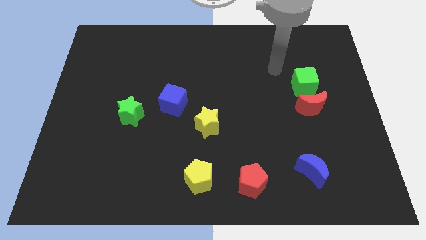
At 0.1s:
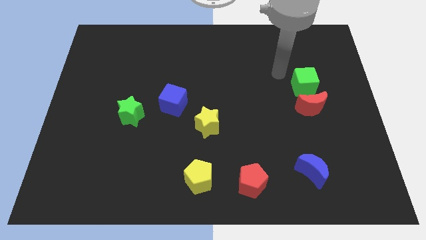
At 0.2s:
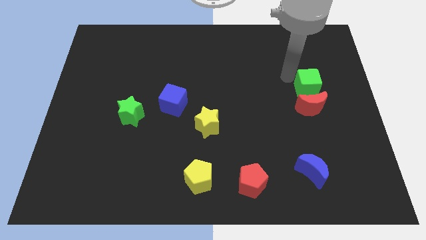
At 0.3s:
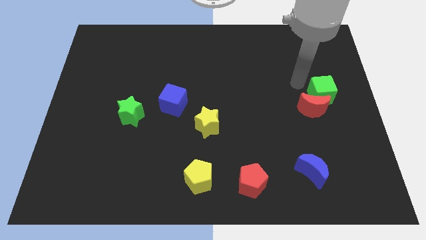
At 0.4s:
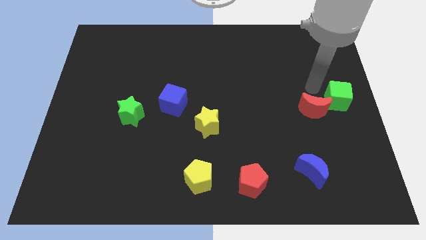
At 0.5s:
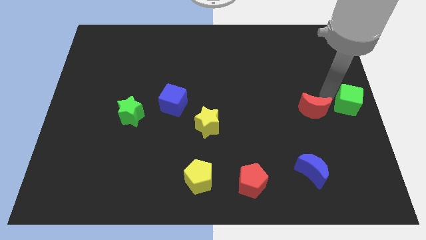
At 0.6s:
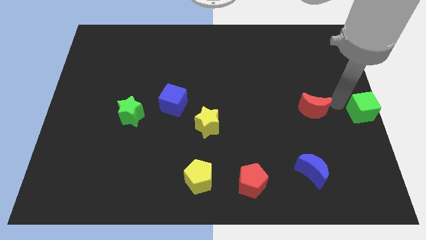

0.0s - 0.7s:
separate the red moon from the green cube

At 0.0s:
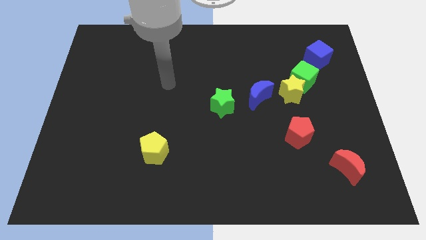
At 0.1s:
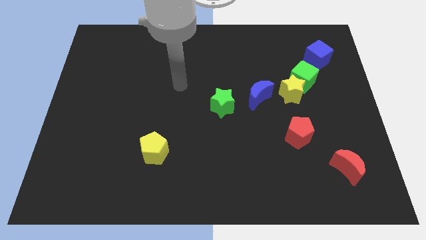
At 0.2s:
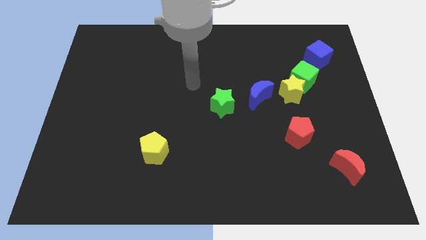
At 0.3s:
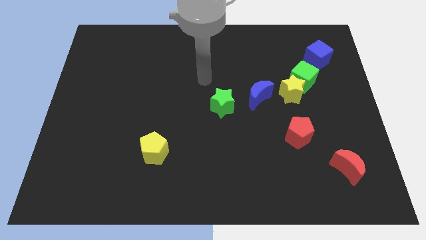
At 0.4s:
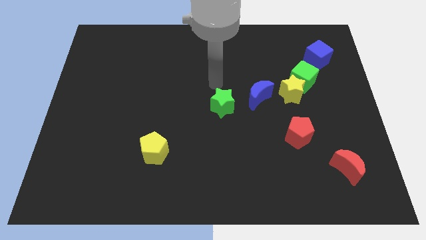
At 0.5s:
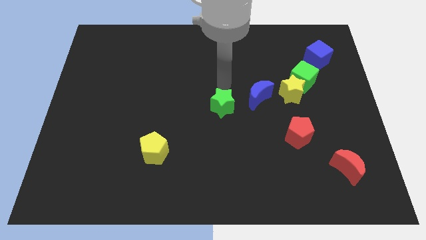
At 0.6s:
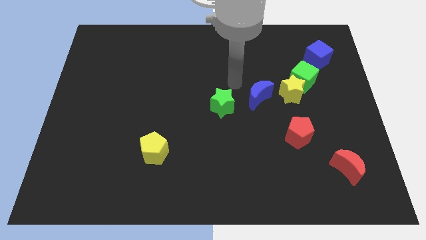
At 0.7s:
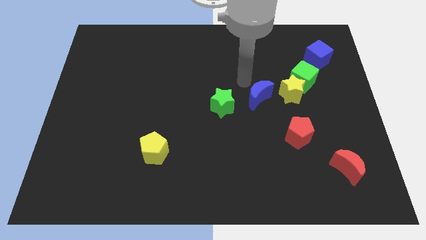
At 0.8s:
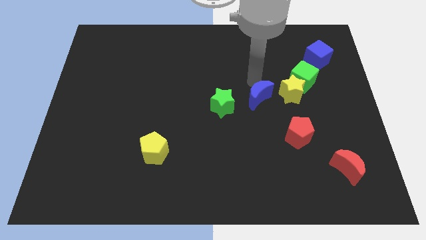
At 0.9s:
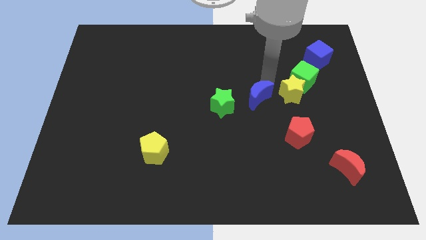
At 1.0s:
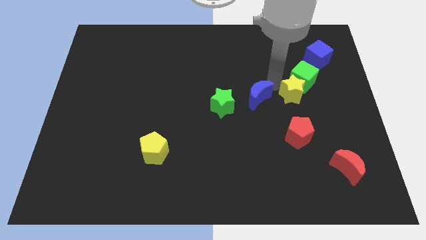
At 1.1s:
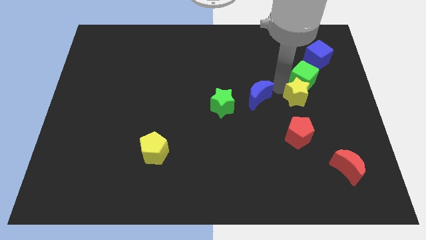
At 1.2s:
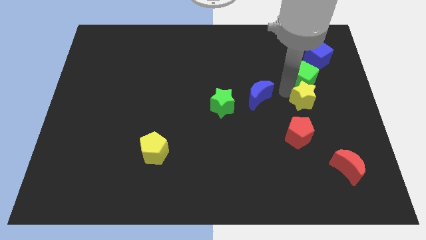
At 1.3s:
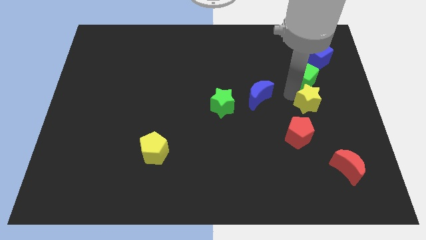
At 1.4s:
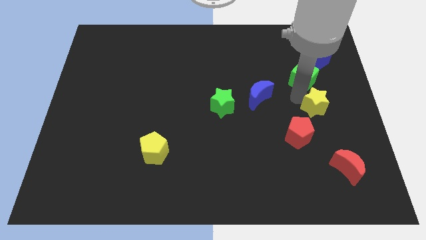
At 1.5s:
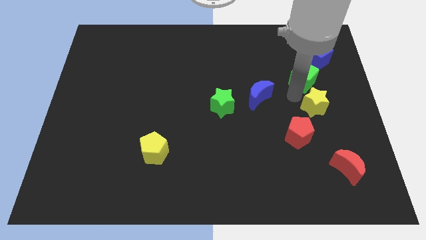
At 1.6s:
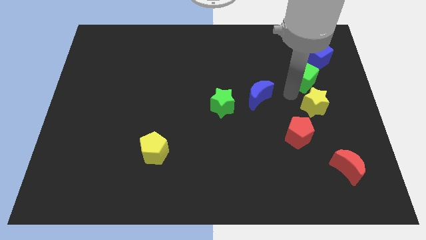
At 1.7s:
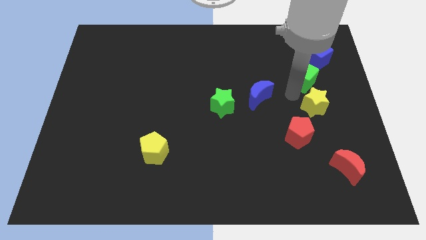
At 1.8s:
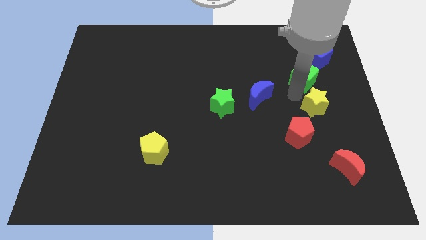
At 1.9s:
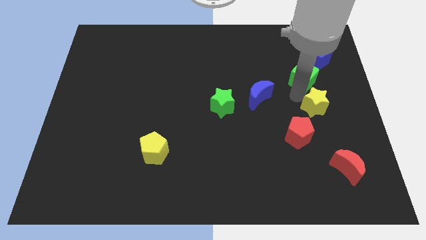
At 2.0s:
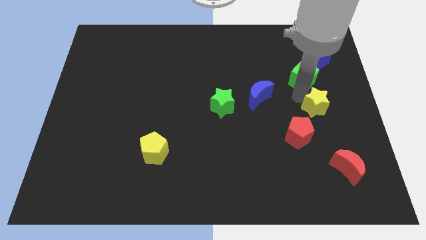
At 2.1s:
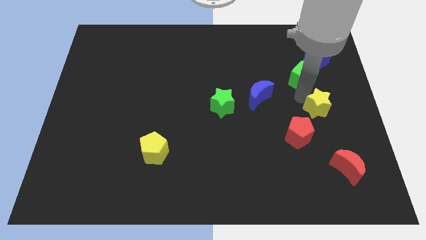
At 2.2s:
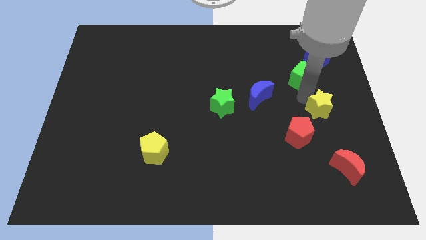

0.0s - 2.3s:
move the yellow star away from the green cube and blue moon

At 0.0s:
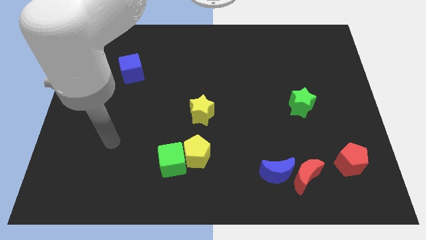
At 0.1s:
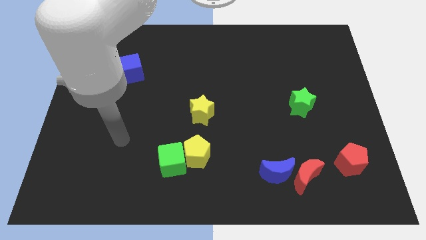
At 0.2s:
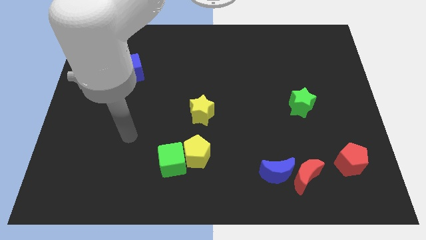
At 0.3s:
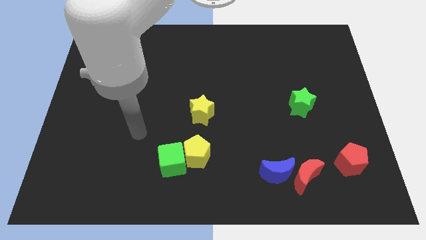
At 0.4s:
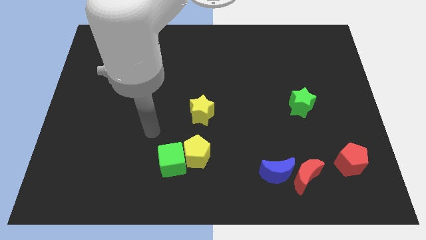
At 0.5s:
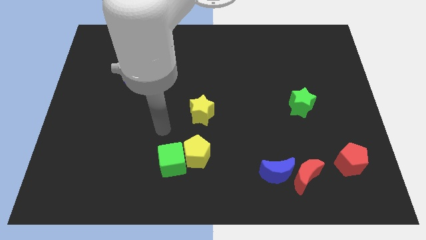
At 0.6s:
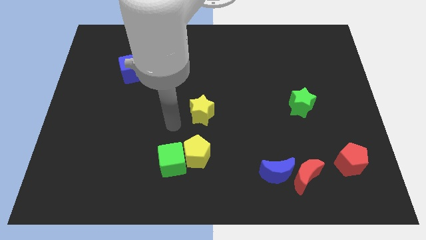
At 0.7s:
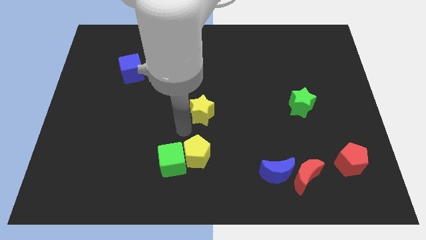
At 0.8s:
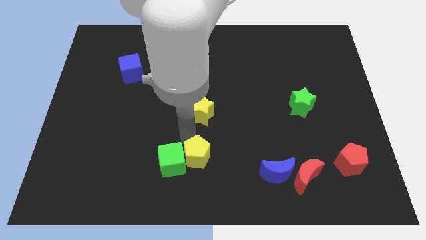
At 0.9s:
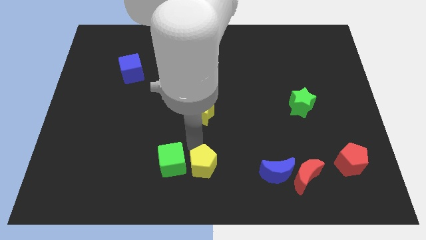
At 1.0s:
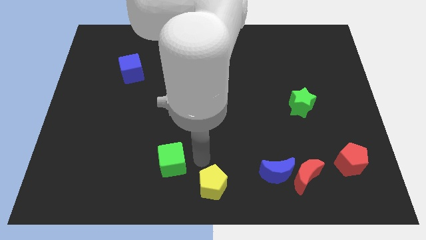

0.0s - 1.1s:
pull the green cube apart from the yellow pentagon

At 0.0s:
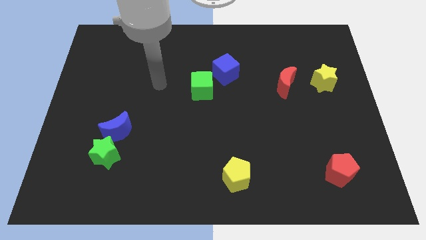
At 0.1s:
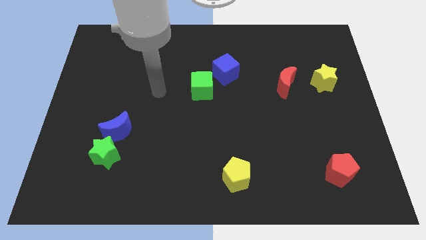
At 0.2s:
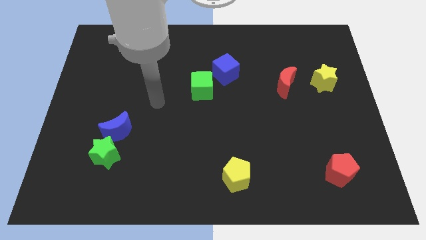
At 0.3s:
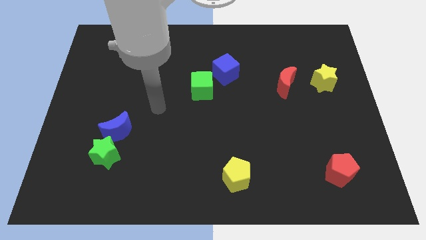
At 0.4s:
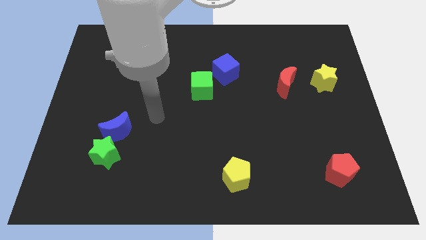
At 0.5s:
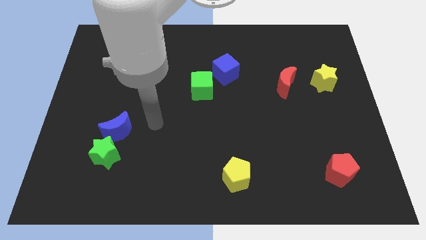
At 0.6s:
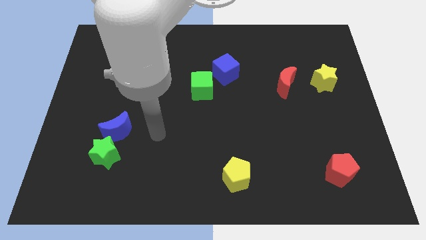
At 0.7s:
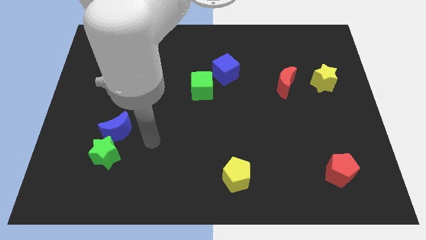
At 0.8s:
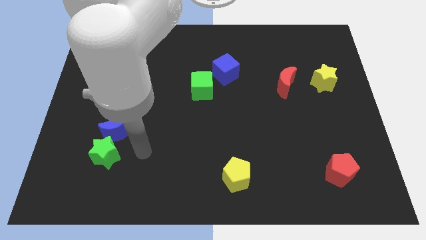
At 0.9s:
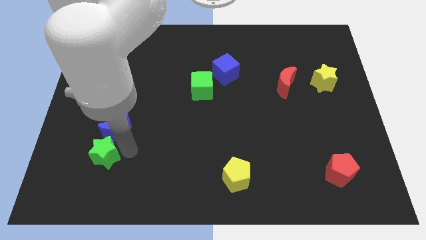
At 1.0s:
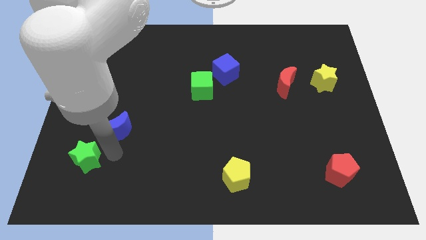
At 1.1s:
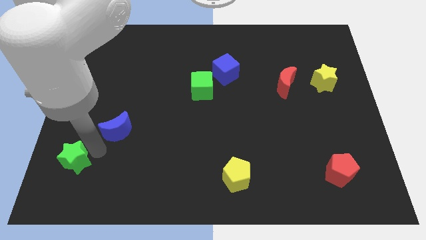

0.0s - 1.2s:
separate the blue moon from the green star

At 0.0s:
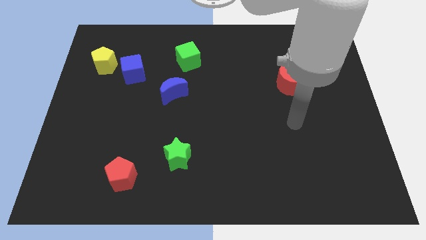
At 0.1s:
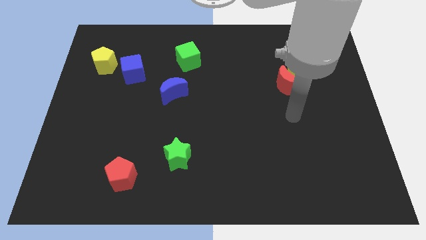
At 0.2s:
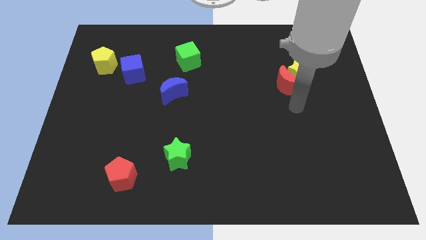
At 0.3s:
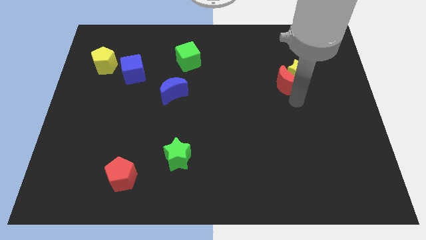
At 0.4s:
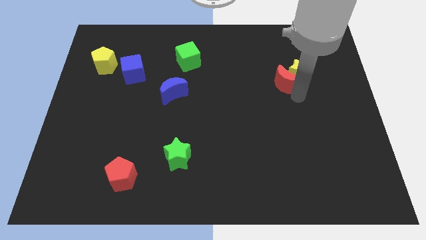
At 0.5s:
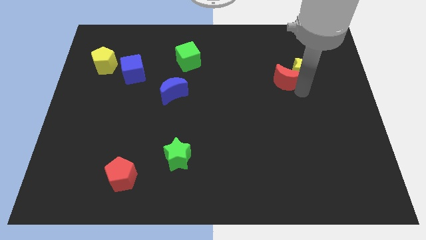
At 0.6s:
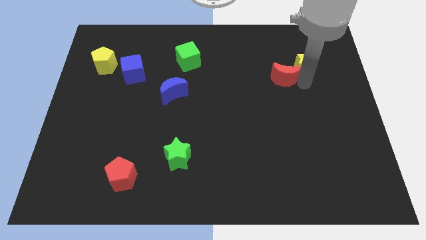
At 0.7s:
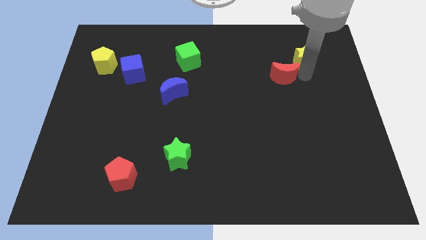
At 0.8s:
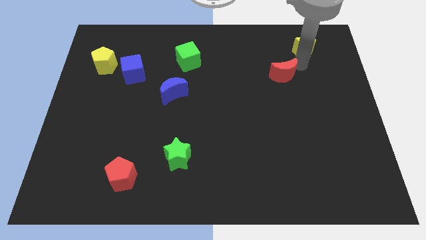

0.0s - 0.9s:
separate the red moon from the yellow star

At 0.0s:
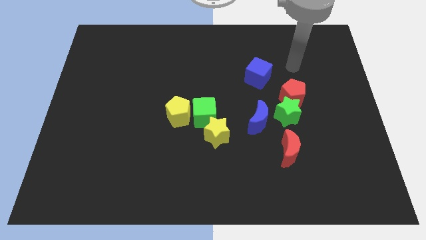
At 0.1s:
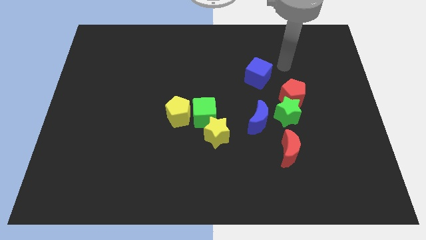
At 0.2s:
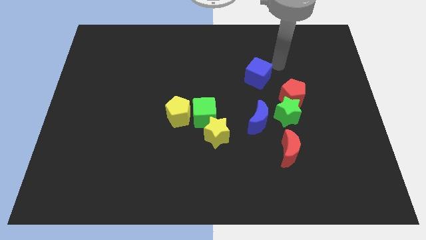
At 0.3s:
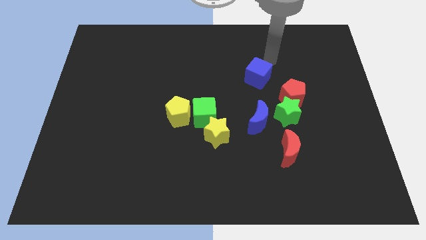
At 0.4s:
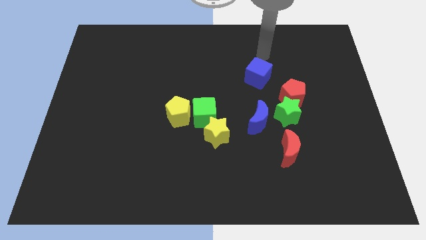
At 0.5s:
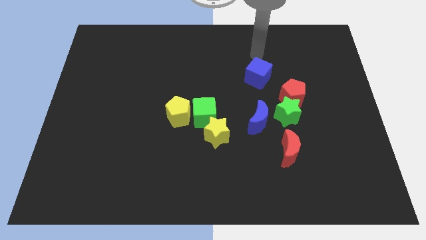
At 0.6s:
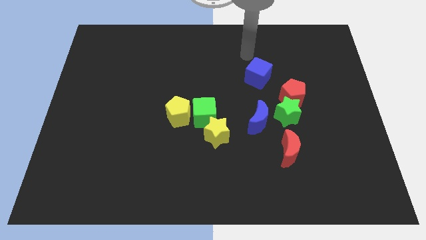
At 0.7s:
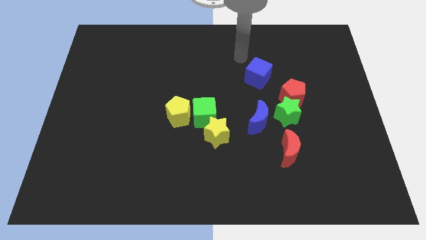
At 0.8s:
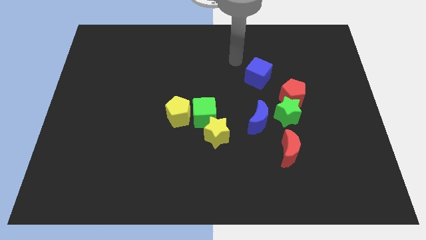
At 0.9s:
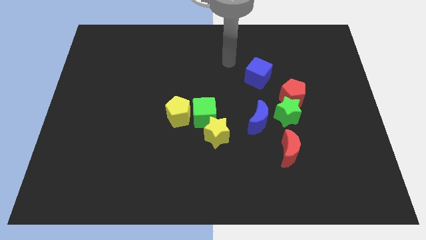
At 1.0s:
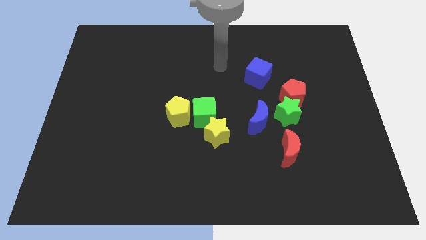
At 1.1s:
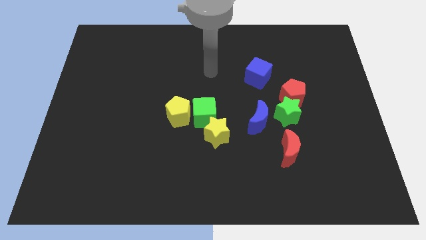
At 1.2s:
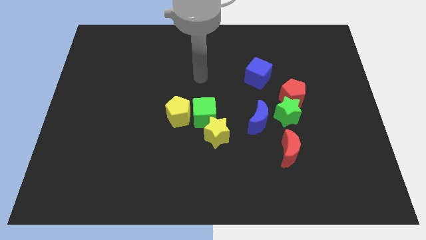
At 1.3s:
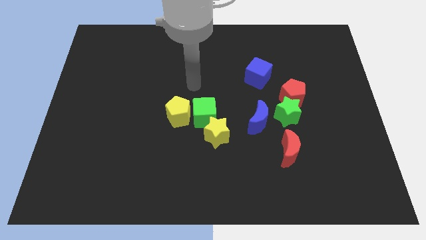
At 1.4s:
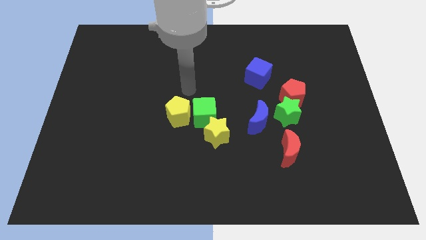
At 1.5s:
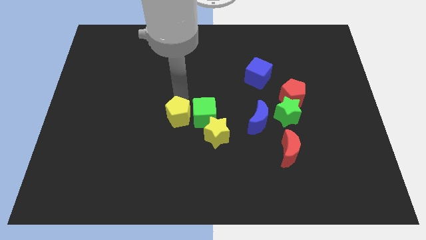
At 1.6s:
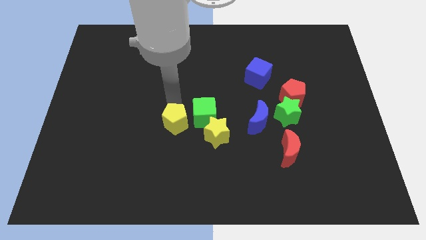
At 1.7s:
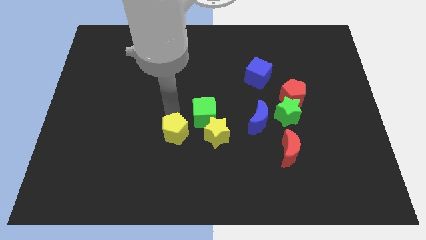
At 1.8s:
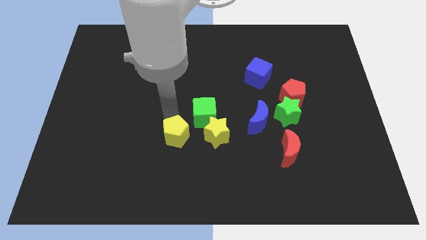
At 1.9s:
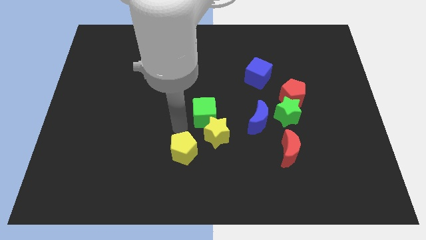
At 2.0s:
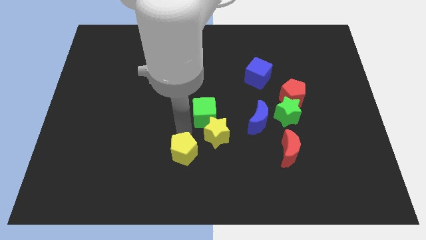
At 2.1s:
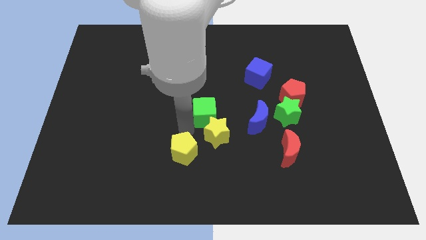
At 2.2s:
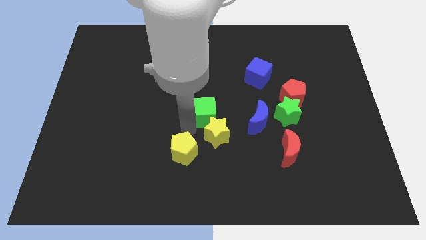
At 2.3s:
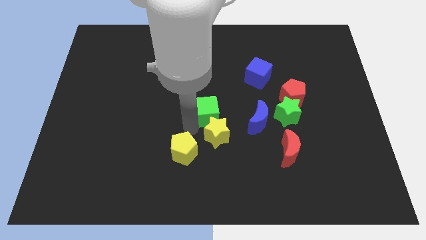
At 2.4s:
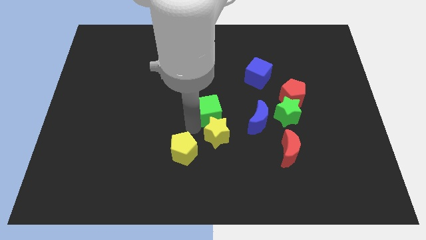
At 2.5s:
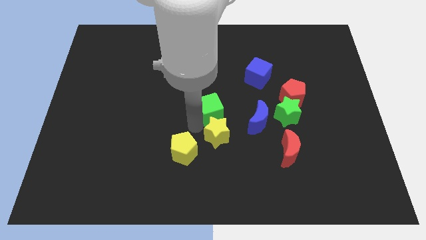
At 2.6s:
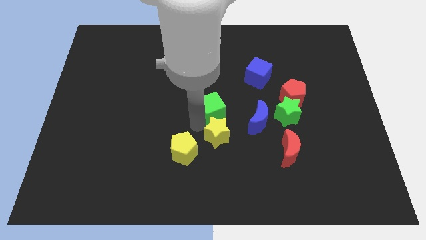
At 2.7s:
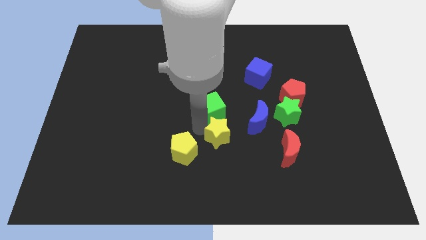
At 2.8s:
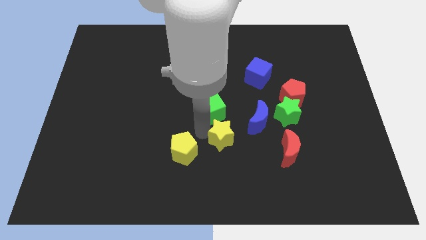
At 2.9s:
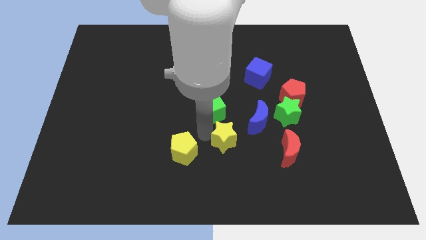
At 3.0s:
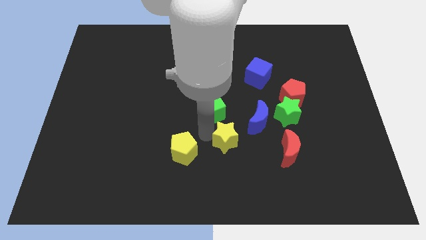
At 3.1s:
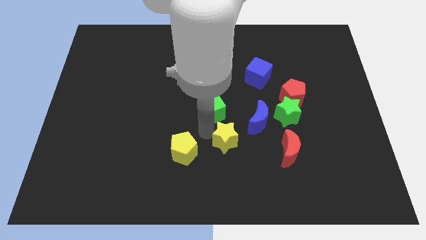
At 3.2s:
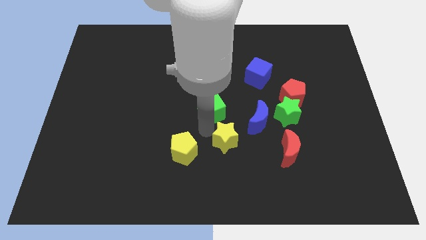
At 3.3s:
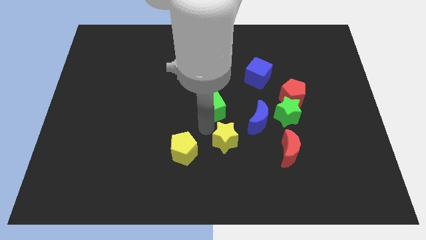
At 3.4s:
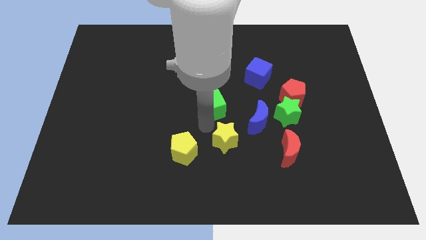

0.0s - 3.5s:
pull the green cube apart from the yellow pentagon and yellow star
